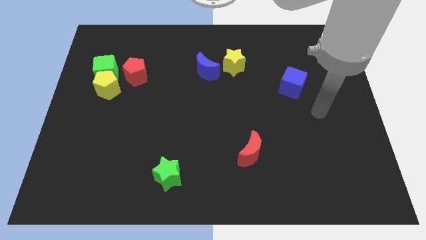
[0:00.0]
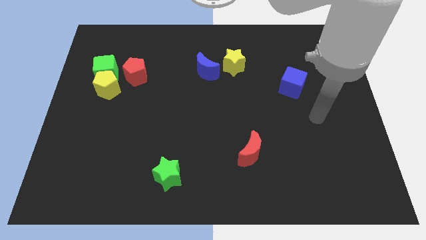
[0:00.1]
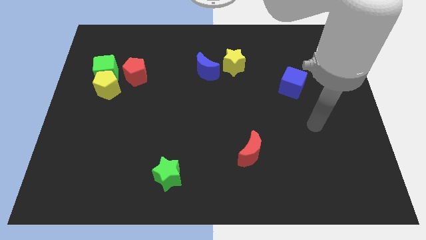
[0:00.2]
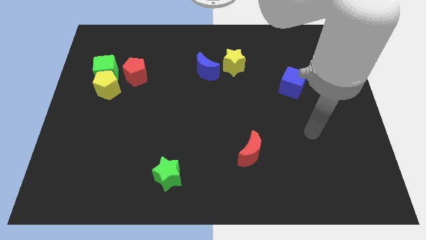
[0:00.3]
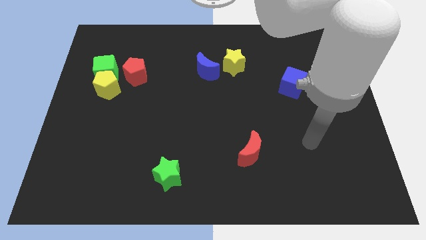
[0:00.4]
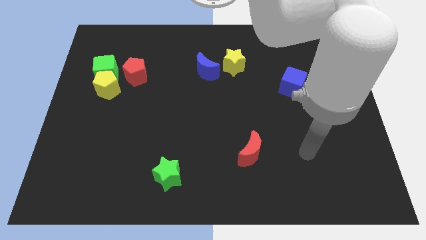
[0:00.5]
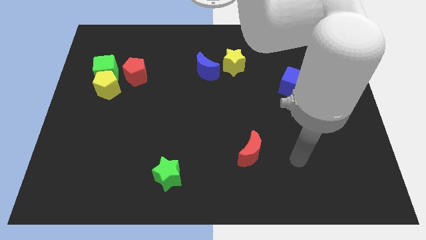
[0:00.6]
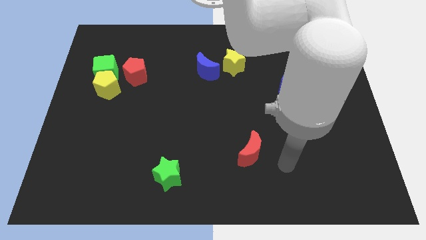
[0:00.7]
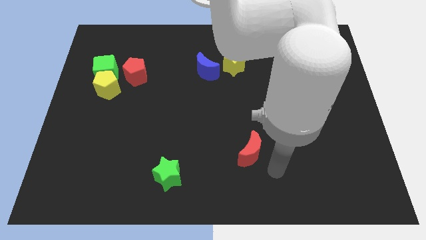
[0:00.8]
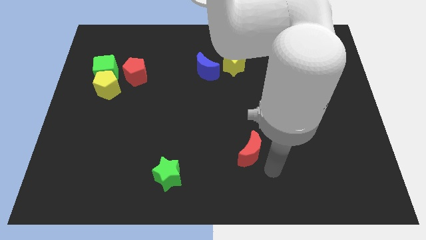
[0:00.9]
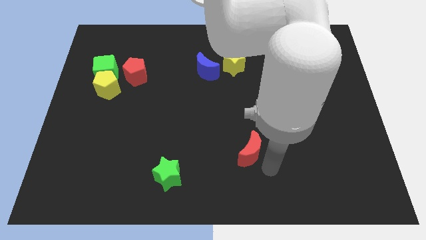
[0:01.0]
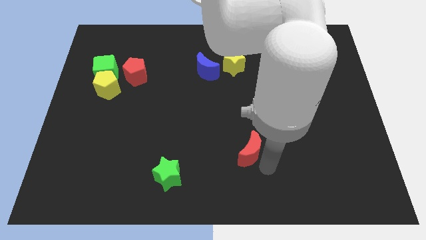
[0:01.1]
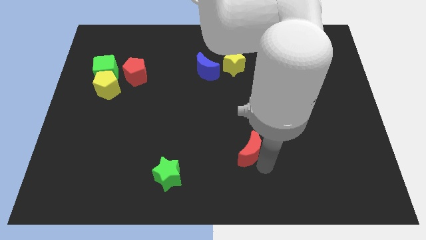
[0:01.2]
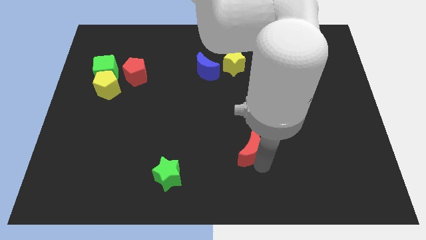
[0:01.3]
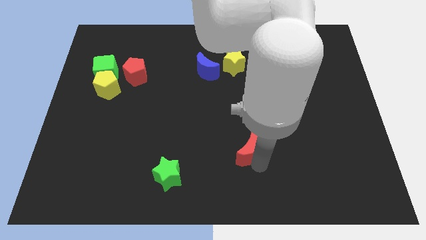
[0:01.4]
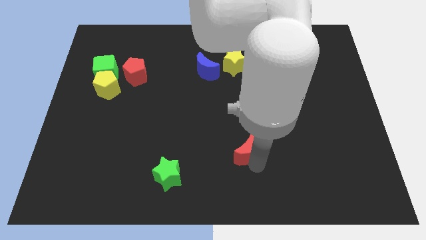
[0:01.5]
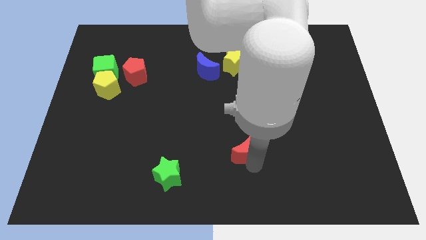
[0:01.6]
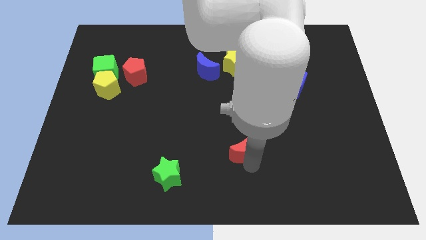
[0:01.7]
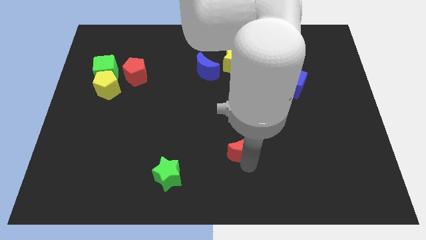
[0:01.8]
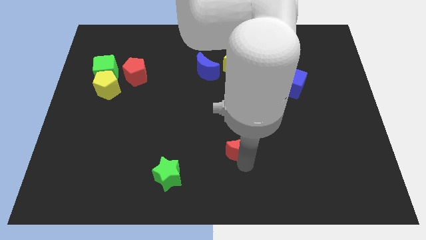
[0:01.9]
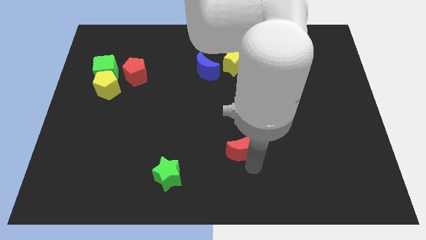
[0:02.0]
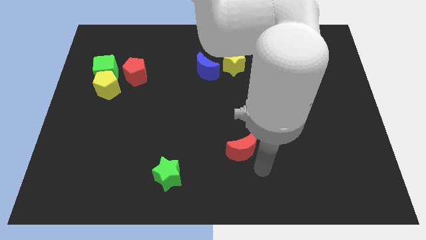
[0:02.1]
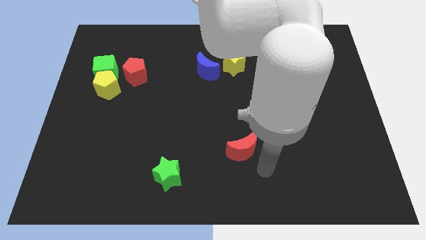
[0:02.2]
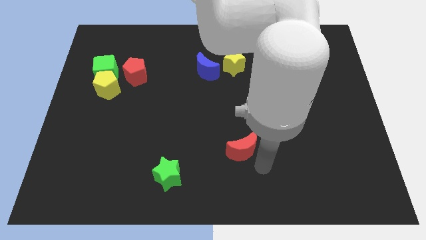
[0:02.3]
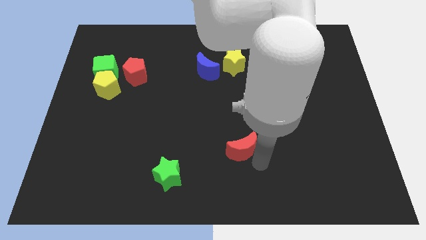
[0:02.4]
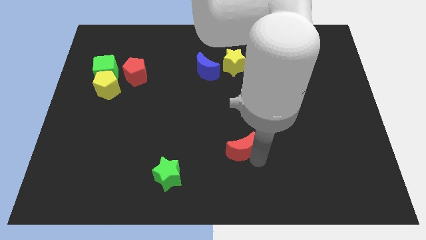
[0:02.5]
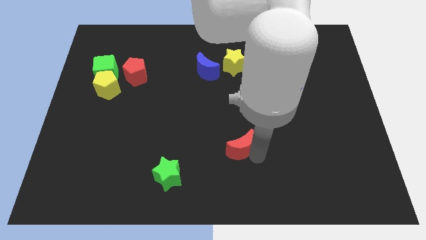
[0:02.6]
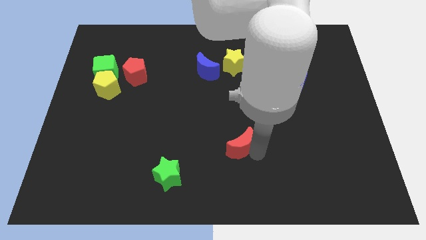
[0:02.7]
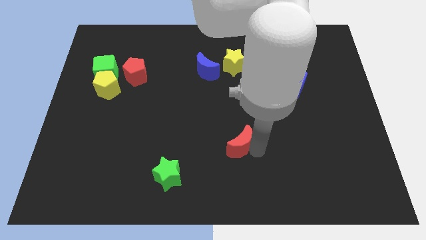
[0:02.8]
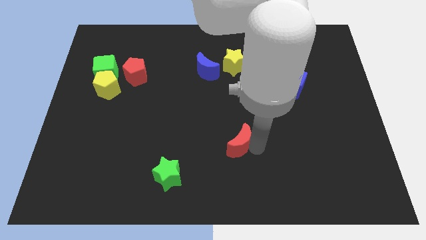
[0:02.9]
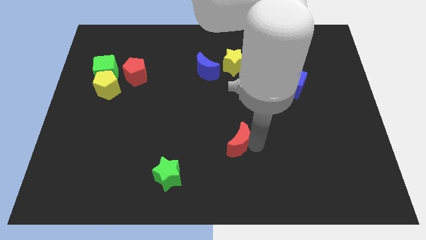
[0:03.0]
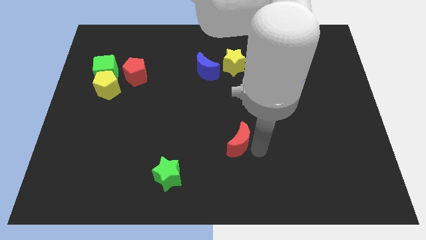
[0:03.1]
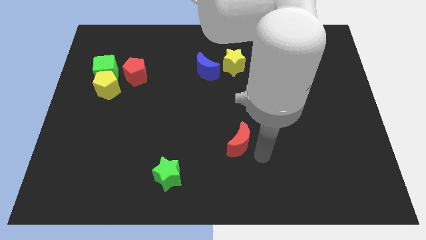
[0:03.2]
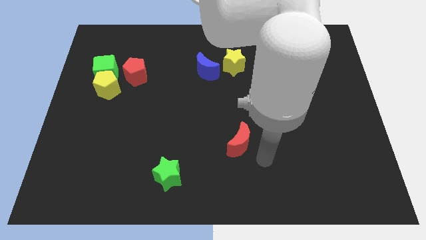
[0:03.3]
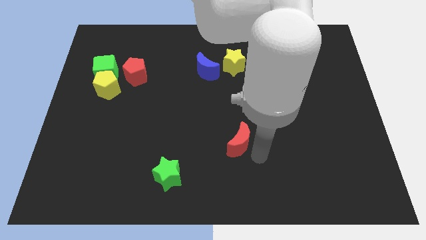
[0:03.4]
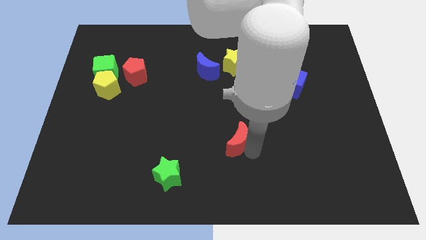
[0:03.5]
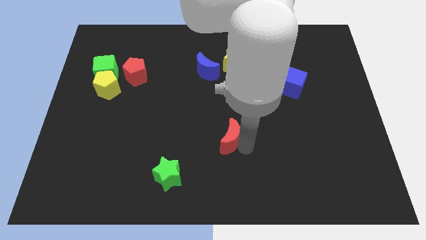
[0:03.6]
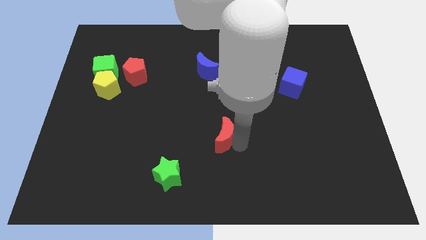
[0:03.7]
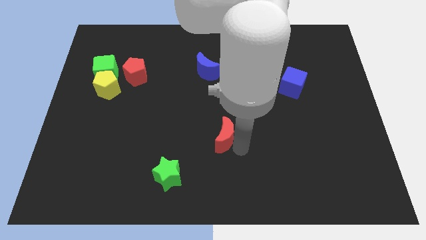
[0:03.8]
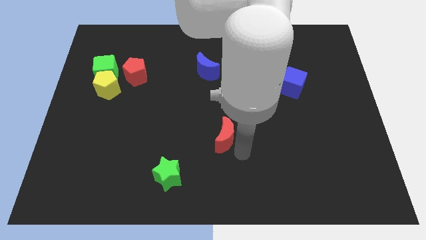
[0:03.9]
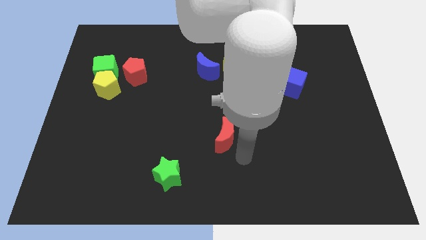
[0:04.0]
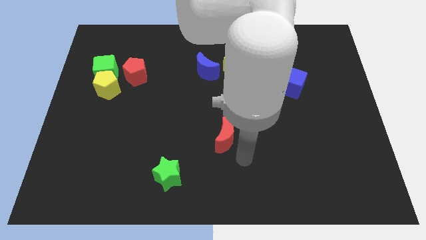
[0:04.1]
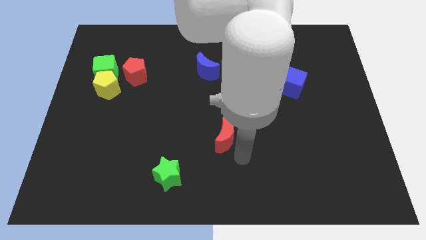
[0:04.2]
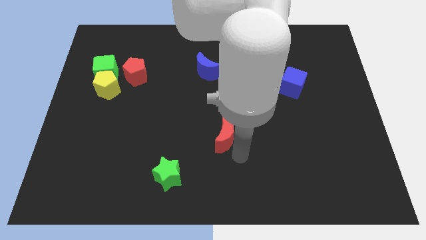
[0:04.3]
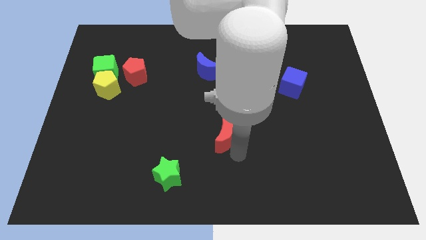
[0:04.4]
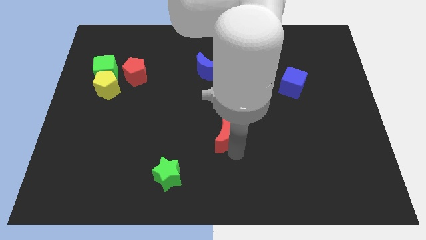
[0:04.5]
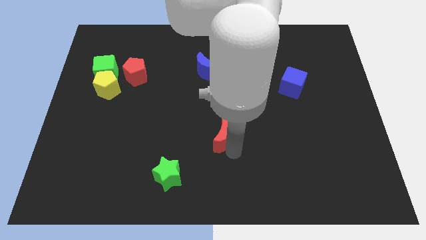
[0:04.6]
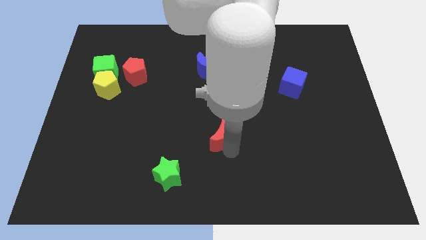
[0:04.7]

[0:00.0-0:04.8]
move the red moon a little upwards and to the left

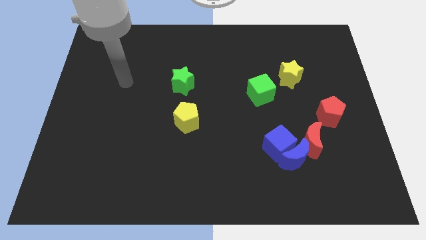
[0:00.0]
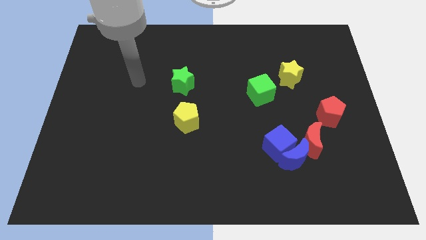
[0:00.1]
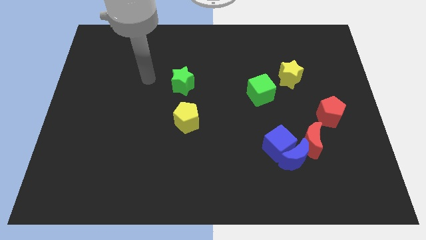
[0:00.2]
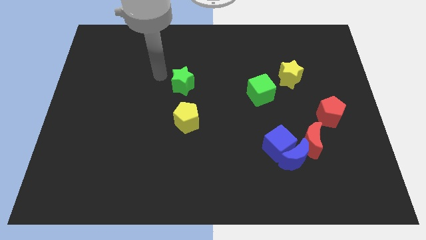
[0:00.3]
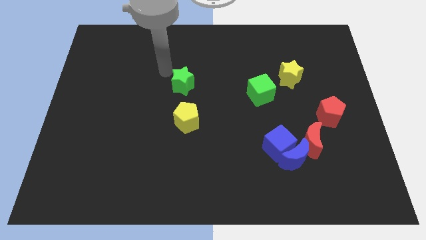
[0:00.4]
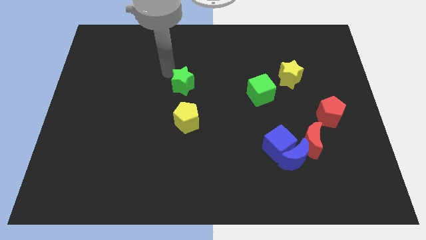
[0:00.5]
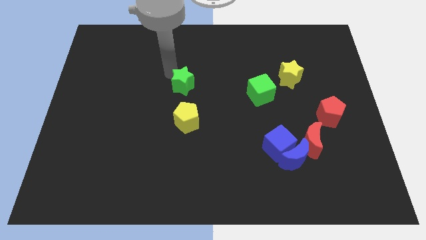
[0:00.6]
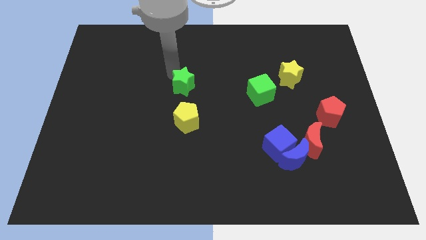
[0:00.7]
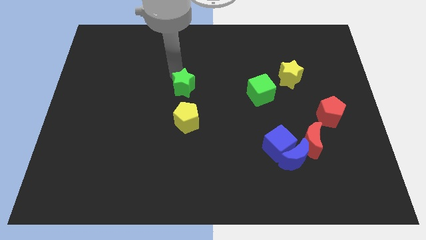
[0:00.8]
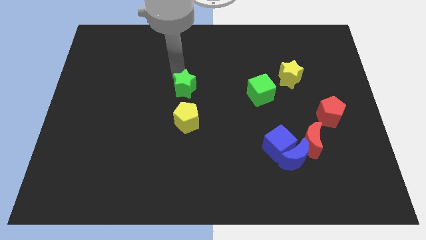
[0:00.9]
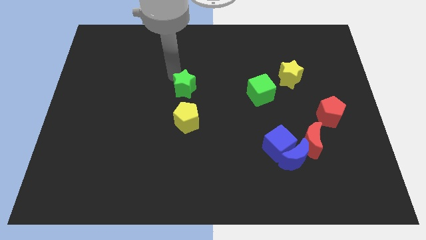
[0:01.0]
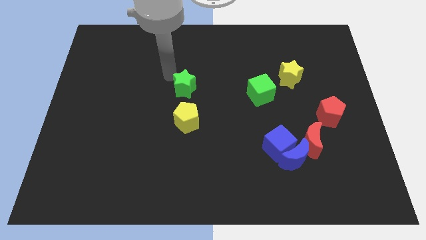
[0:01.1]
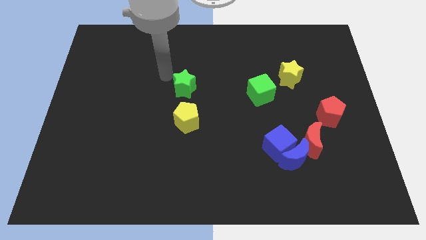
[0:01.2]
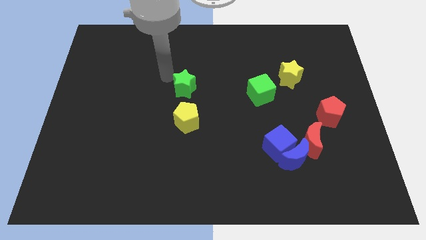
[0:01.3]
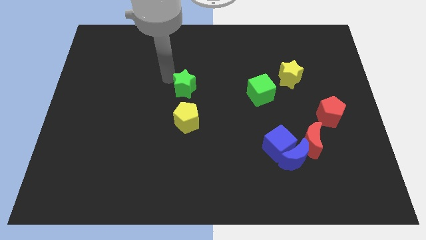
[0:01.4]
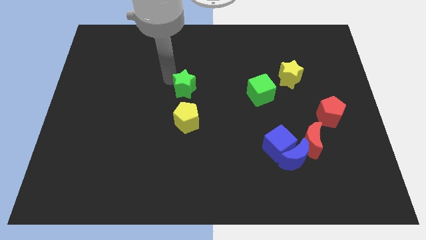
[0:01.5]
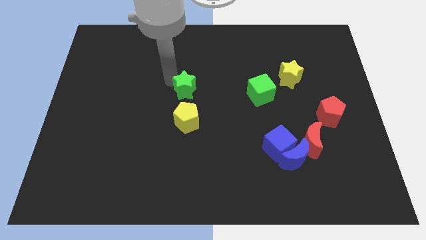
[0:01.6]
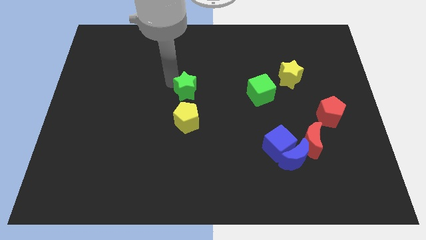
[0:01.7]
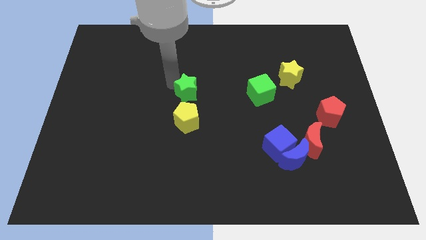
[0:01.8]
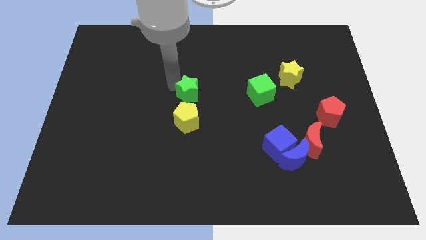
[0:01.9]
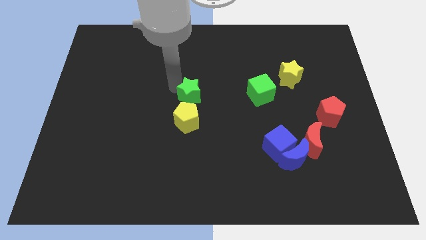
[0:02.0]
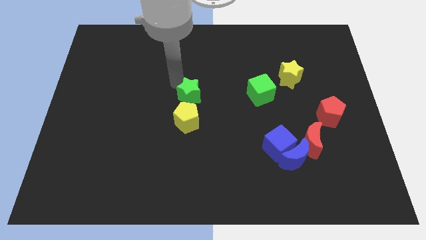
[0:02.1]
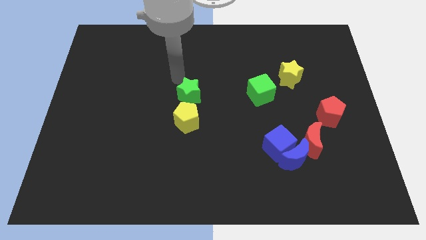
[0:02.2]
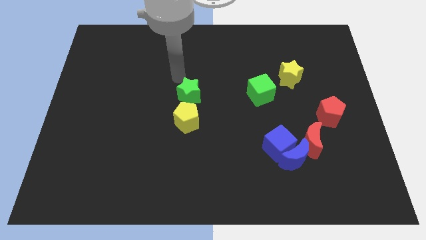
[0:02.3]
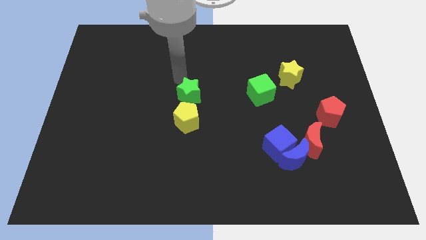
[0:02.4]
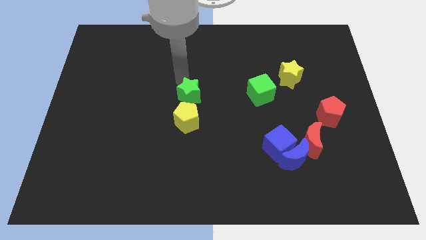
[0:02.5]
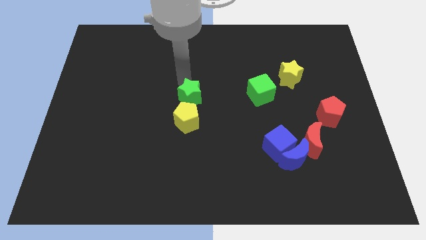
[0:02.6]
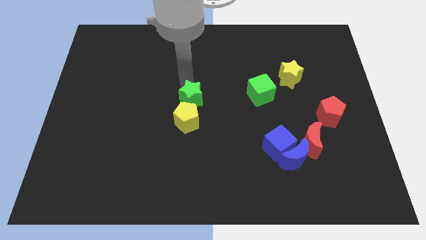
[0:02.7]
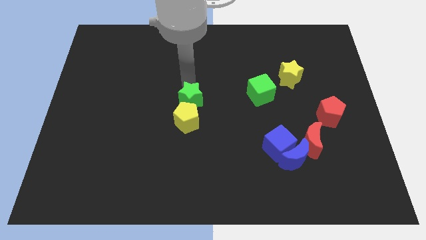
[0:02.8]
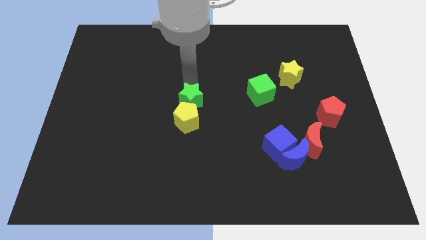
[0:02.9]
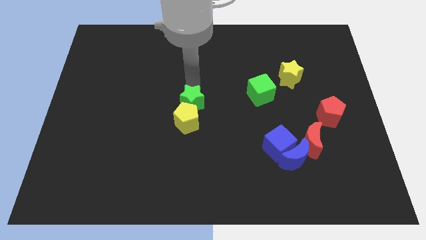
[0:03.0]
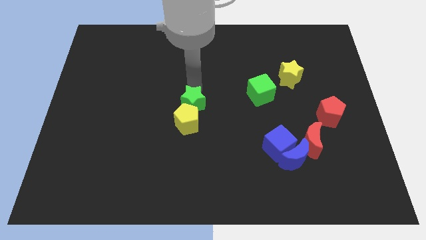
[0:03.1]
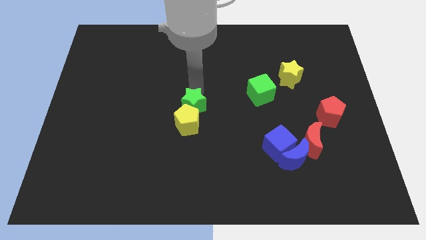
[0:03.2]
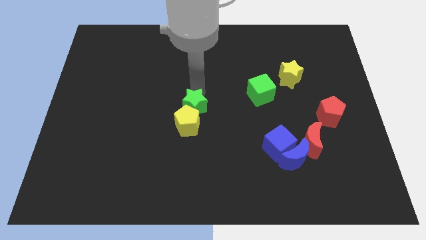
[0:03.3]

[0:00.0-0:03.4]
slightly move the green star down and then to the right
